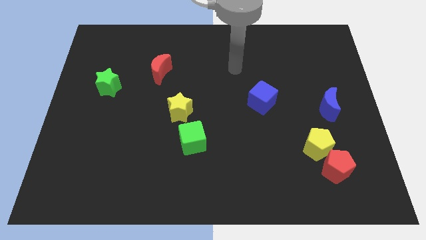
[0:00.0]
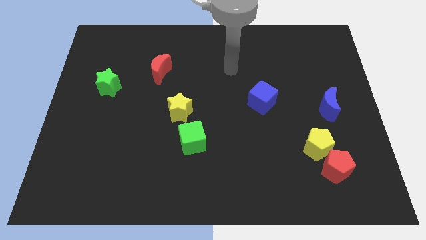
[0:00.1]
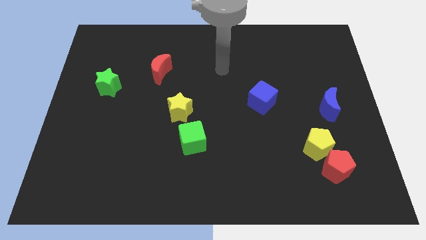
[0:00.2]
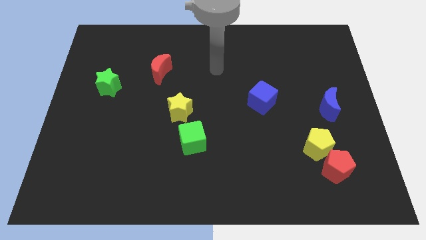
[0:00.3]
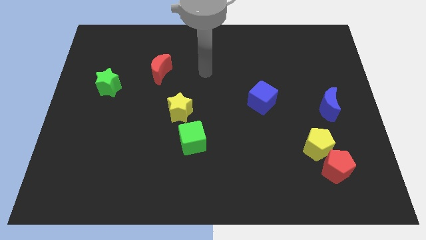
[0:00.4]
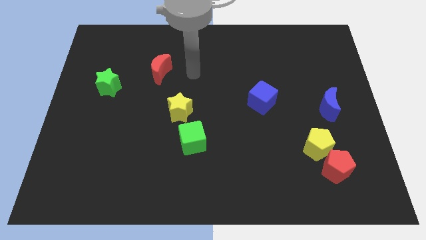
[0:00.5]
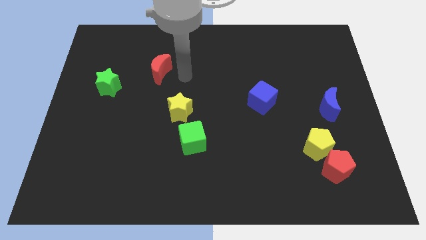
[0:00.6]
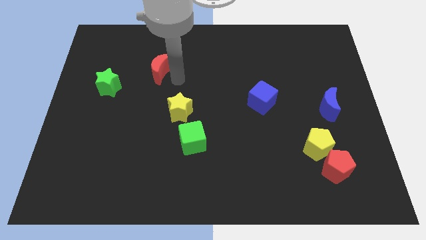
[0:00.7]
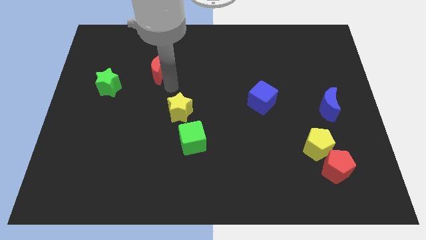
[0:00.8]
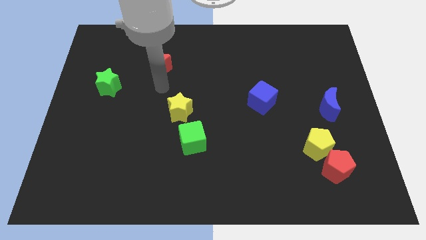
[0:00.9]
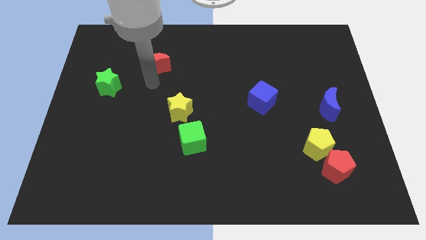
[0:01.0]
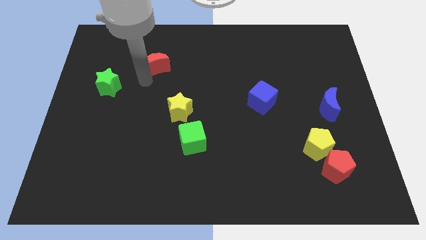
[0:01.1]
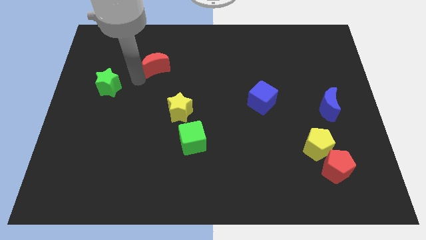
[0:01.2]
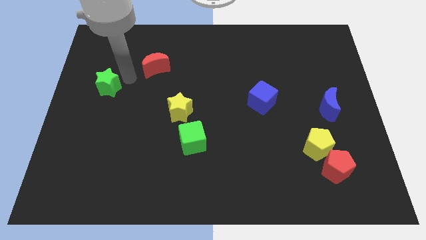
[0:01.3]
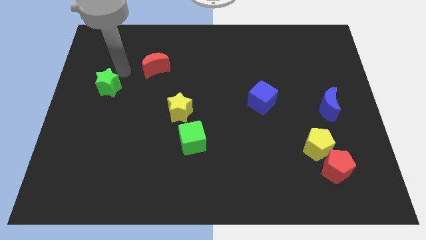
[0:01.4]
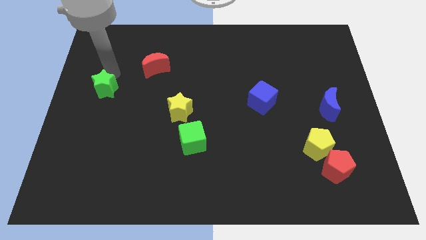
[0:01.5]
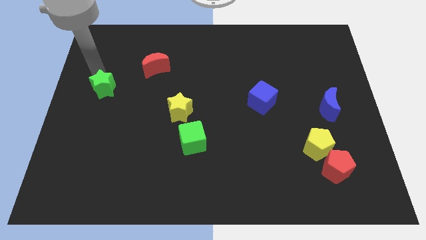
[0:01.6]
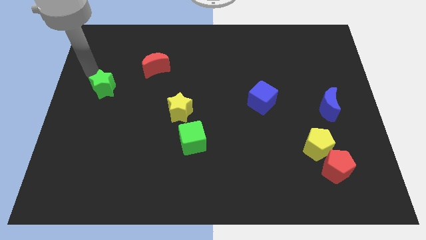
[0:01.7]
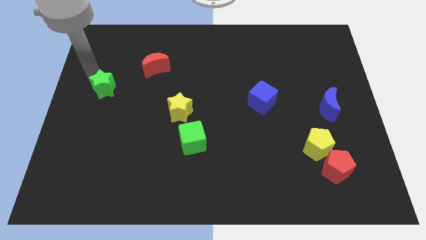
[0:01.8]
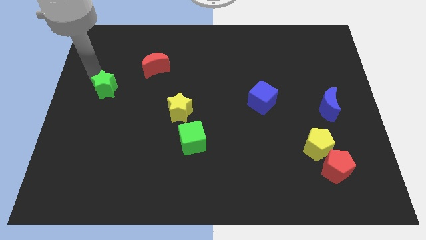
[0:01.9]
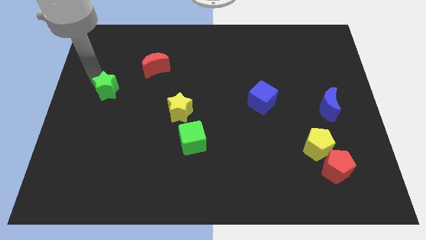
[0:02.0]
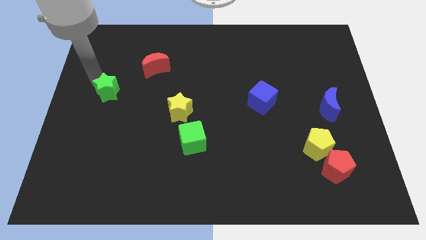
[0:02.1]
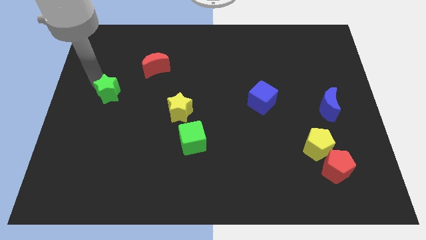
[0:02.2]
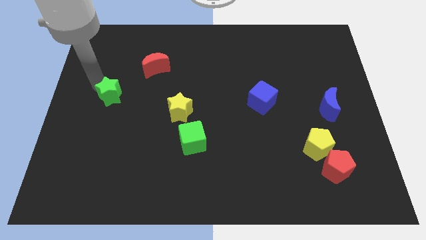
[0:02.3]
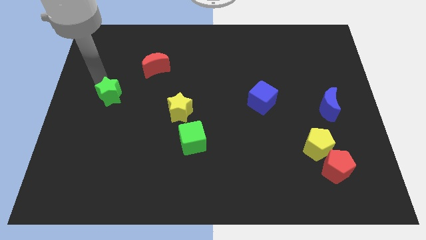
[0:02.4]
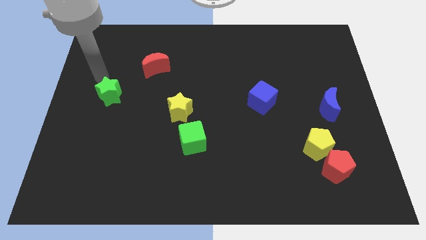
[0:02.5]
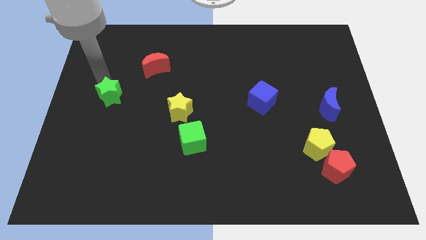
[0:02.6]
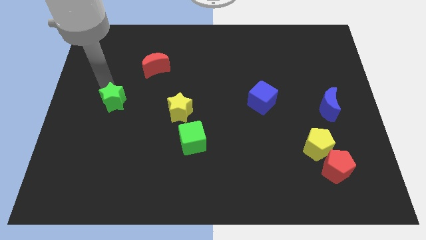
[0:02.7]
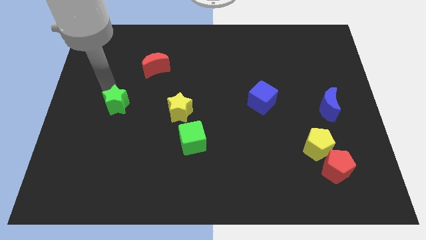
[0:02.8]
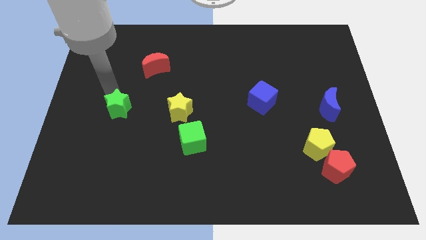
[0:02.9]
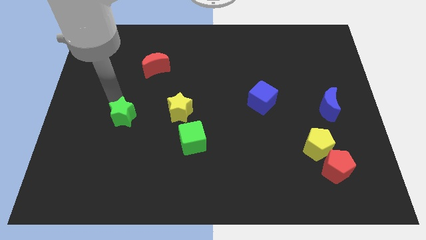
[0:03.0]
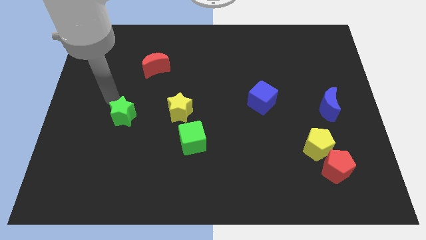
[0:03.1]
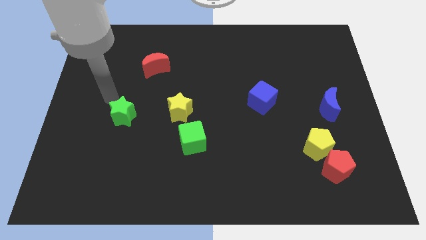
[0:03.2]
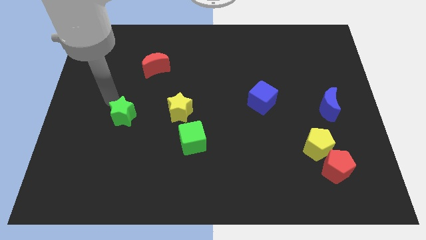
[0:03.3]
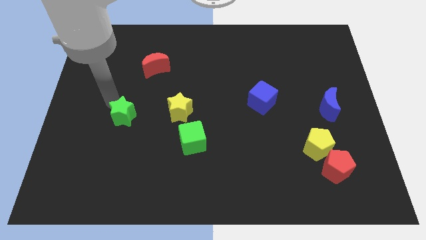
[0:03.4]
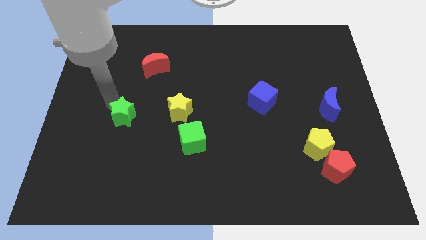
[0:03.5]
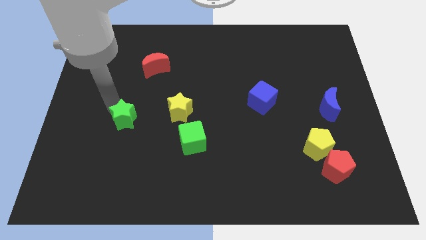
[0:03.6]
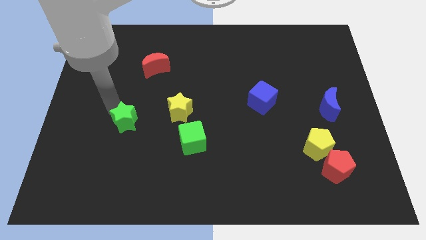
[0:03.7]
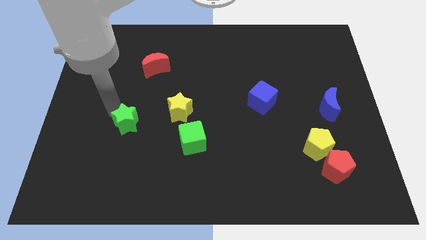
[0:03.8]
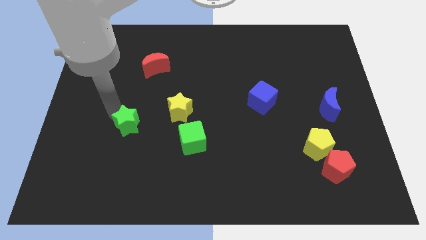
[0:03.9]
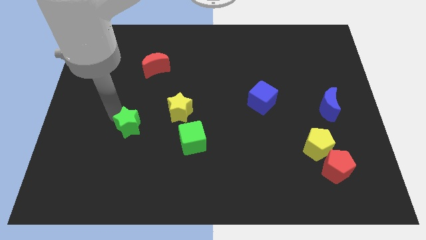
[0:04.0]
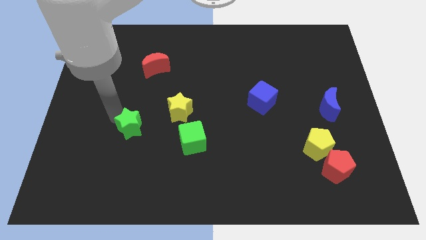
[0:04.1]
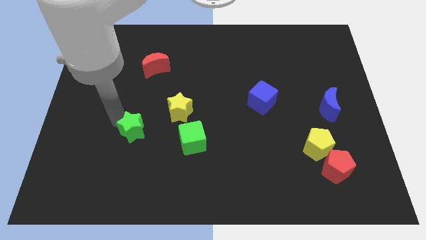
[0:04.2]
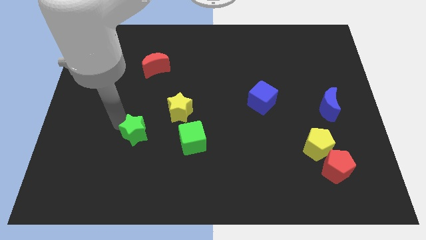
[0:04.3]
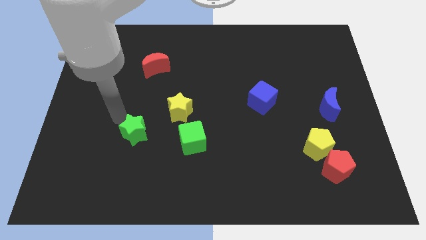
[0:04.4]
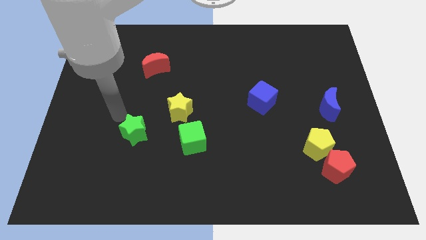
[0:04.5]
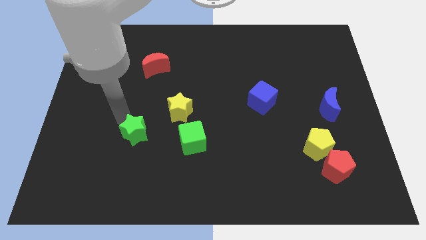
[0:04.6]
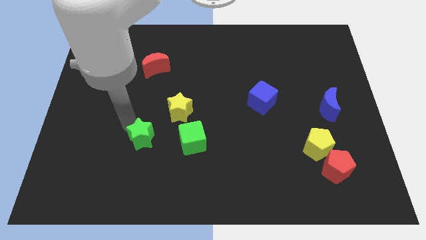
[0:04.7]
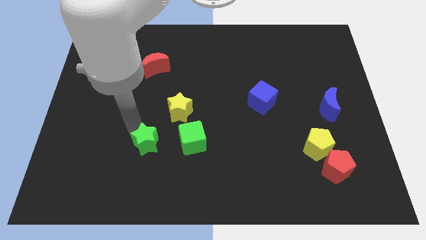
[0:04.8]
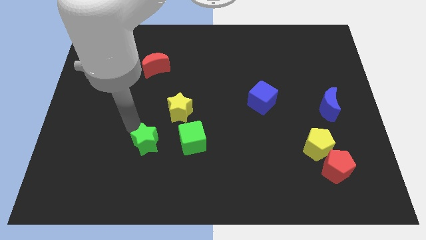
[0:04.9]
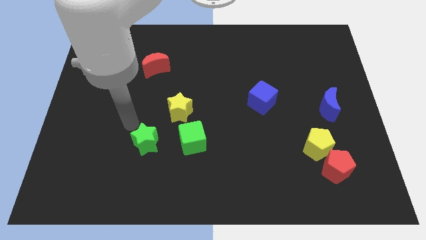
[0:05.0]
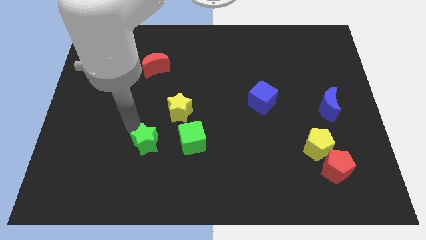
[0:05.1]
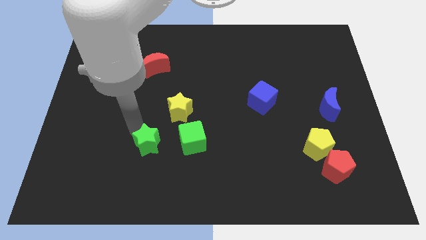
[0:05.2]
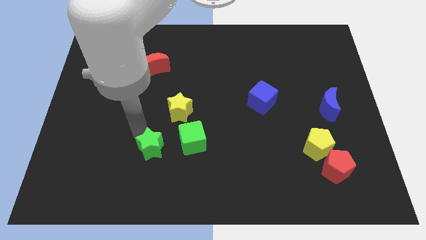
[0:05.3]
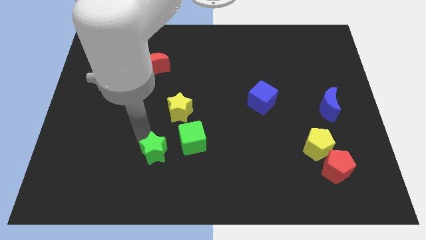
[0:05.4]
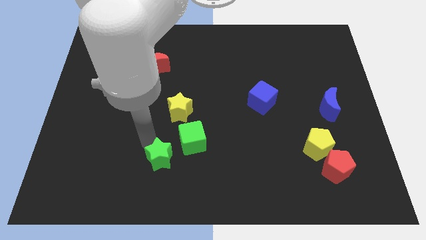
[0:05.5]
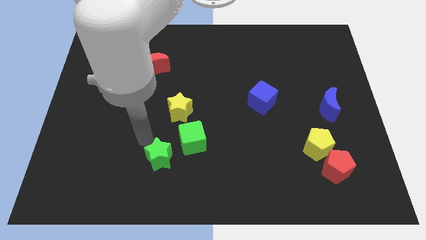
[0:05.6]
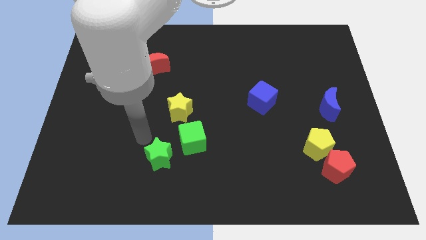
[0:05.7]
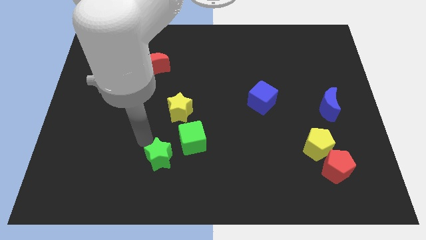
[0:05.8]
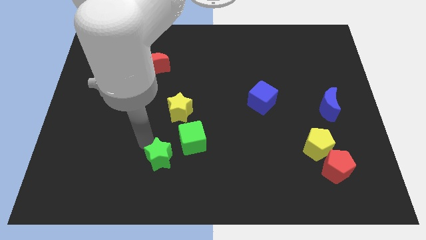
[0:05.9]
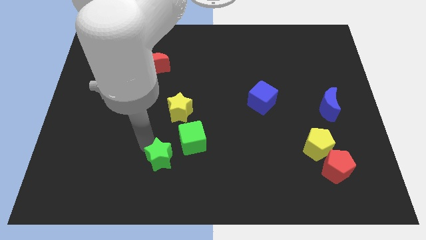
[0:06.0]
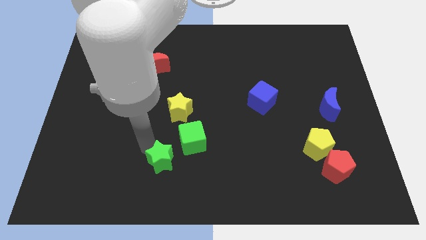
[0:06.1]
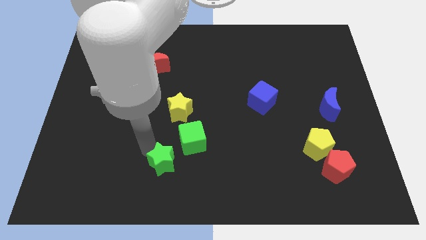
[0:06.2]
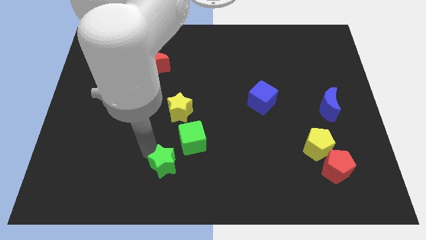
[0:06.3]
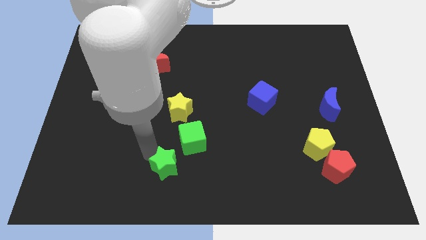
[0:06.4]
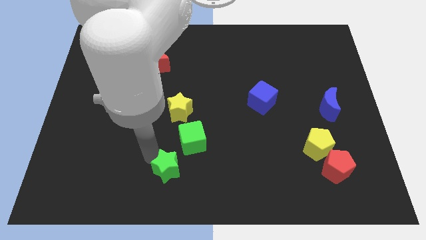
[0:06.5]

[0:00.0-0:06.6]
push the green star to the bottom
